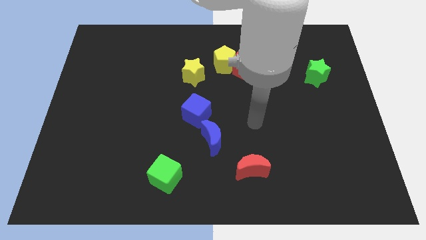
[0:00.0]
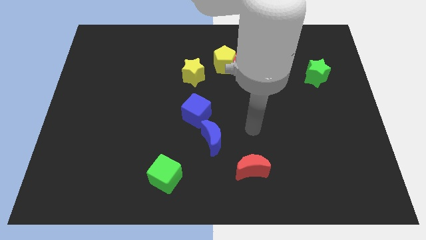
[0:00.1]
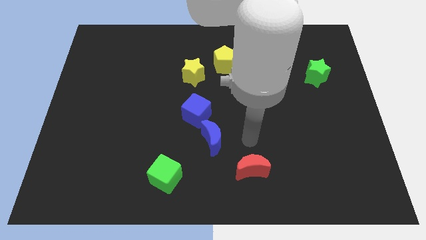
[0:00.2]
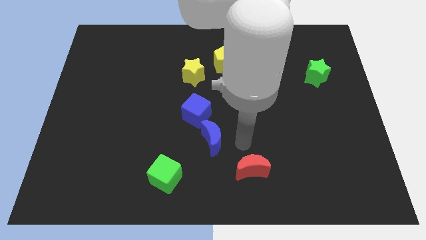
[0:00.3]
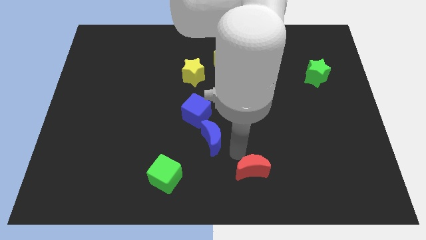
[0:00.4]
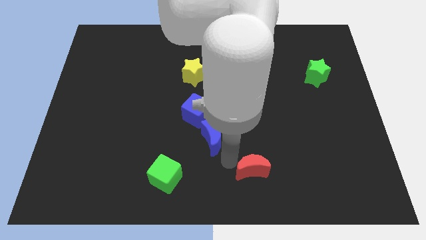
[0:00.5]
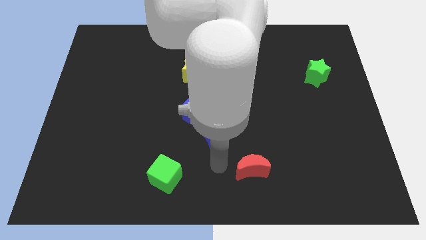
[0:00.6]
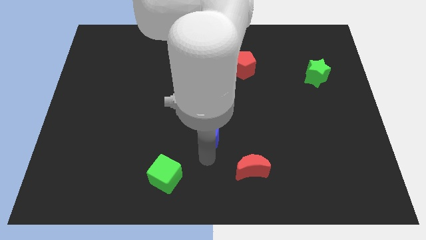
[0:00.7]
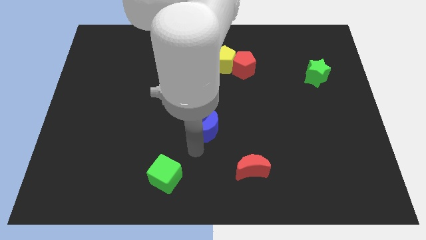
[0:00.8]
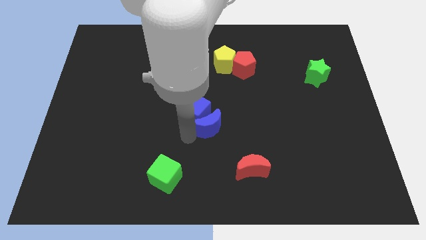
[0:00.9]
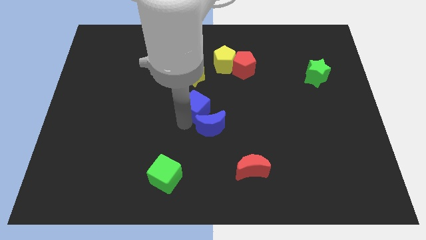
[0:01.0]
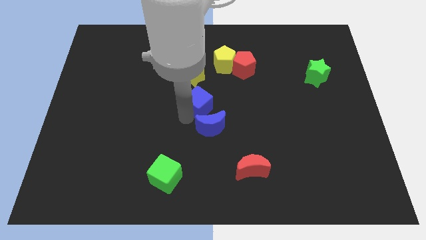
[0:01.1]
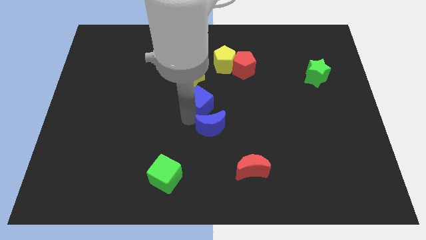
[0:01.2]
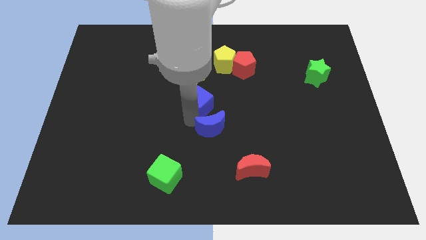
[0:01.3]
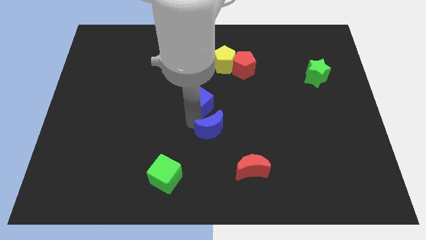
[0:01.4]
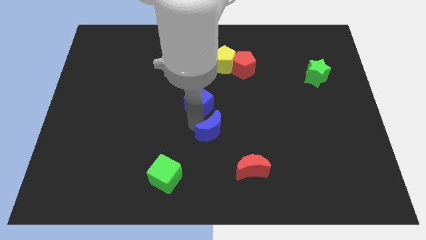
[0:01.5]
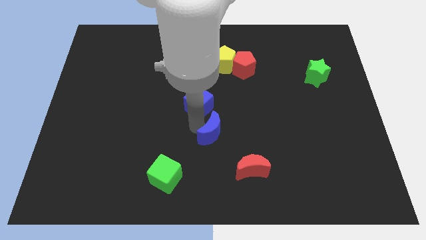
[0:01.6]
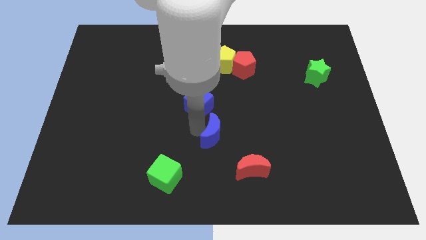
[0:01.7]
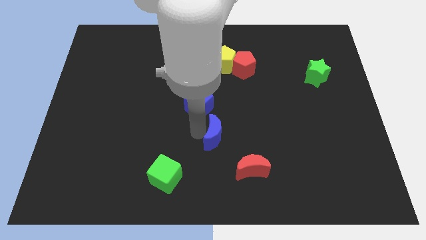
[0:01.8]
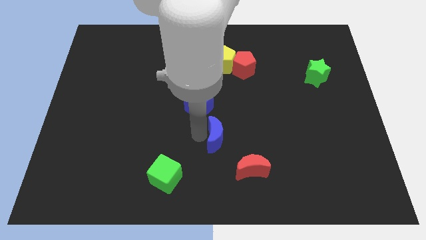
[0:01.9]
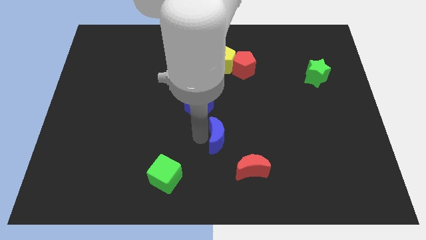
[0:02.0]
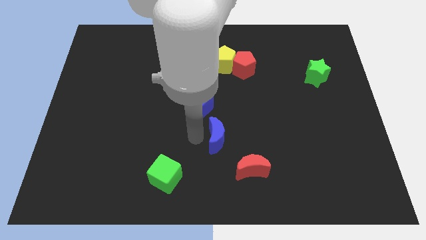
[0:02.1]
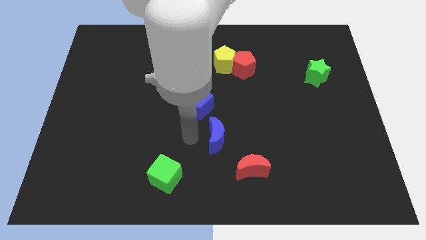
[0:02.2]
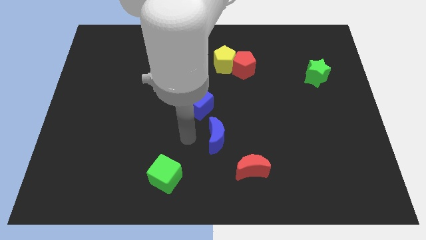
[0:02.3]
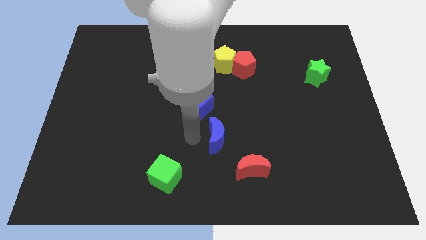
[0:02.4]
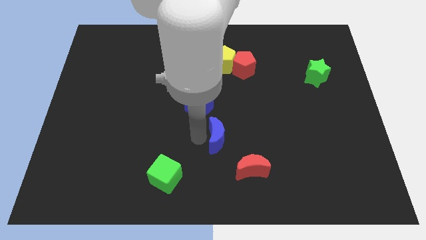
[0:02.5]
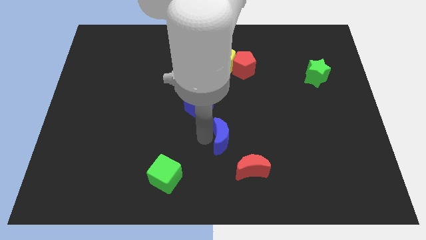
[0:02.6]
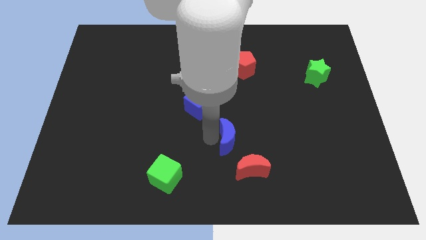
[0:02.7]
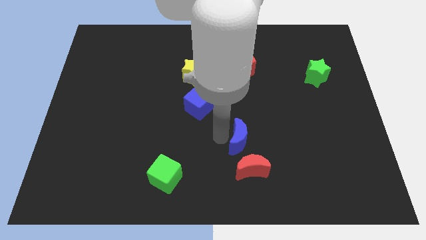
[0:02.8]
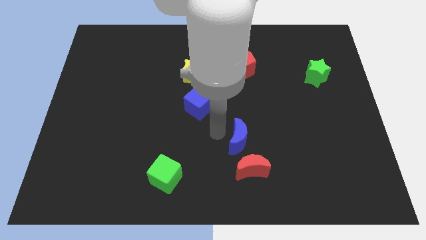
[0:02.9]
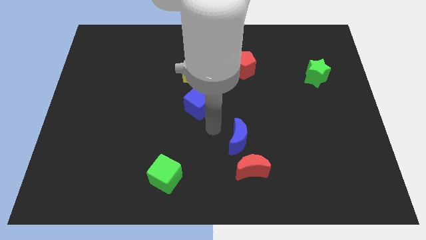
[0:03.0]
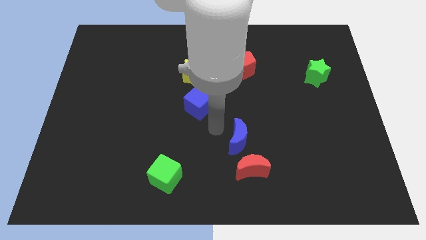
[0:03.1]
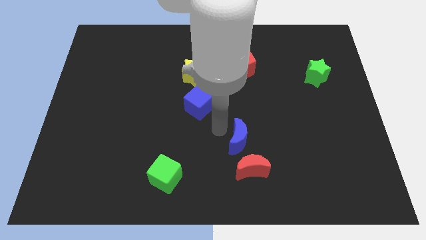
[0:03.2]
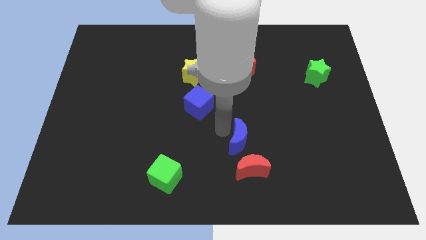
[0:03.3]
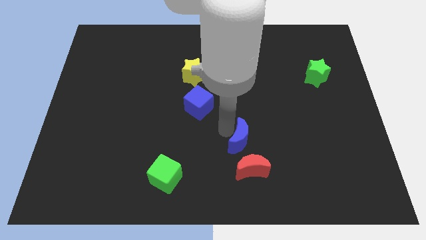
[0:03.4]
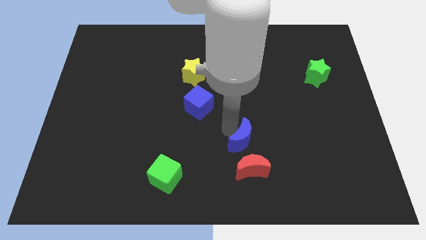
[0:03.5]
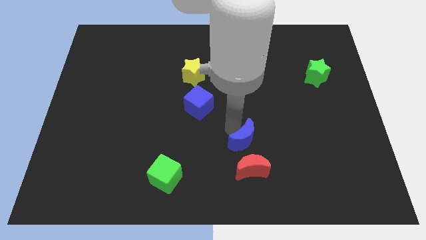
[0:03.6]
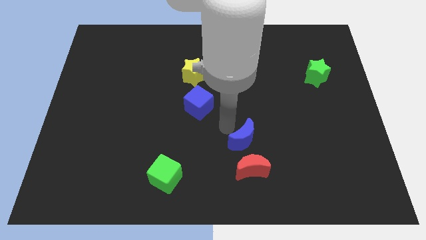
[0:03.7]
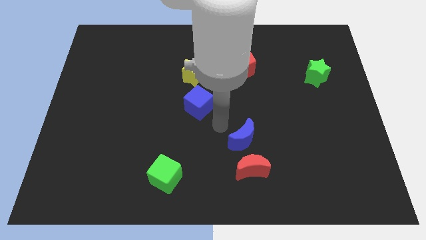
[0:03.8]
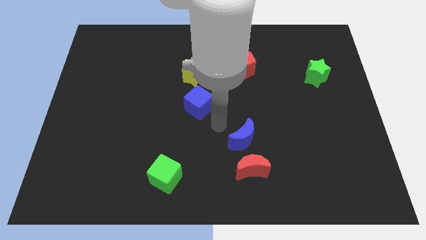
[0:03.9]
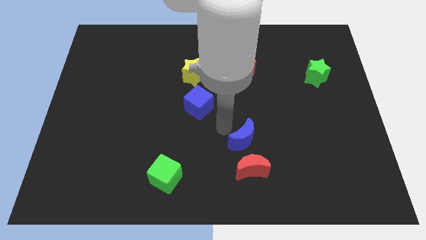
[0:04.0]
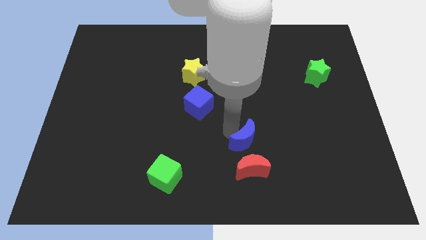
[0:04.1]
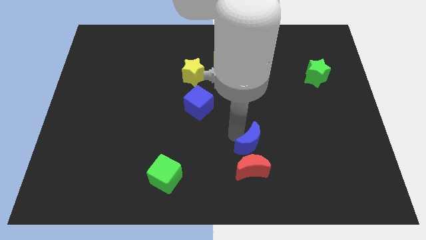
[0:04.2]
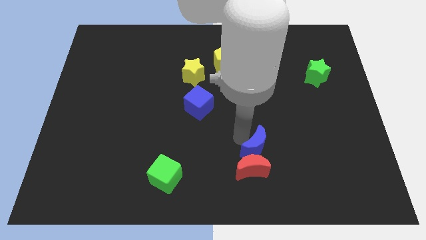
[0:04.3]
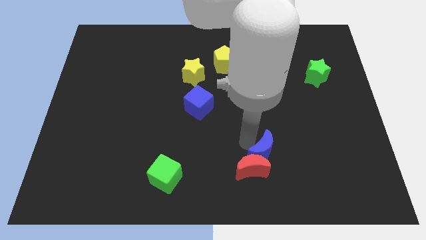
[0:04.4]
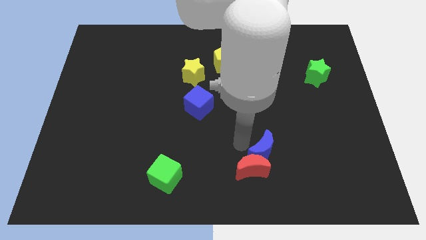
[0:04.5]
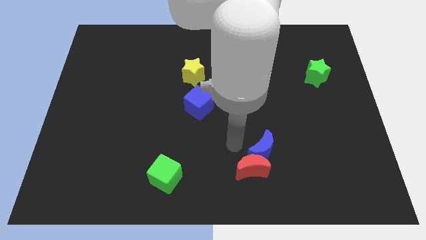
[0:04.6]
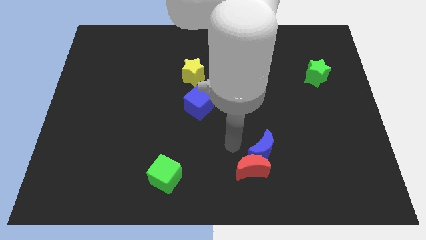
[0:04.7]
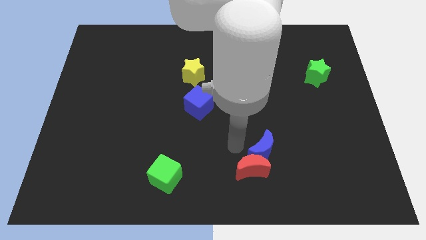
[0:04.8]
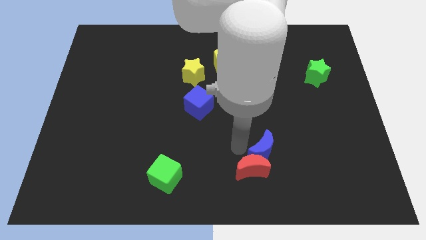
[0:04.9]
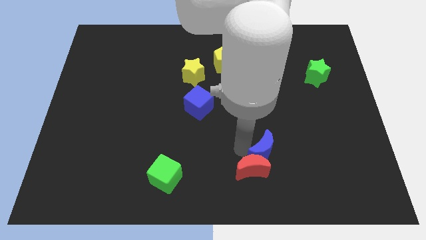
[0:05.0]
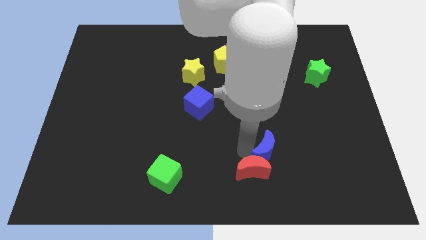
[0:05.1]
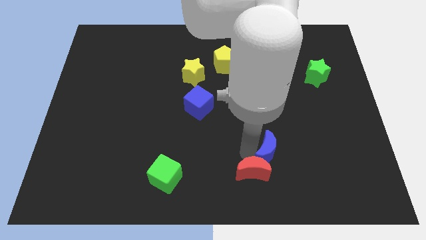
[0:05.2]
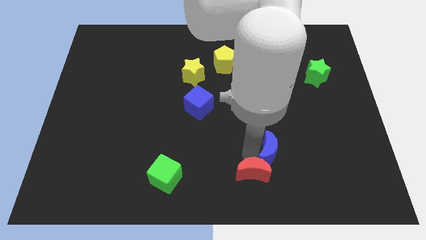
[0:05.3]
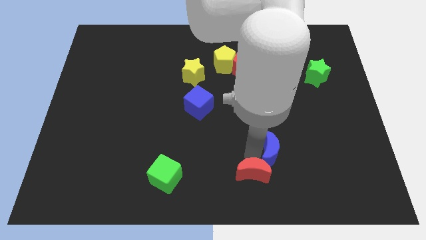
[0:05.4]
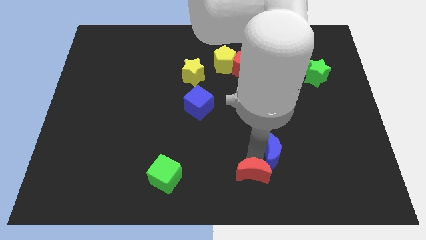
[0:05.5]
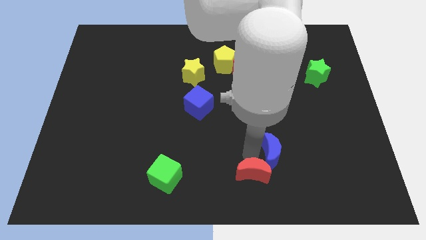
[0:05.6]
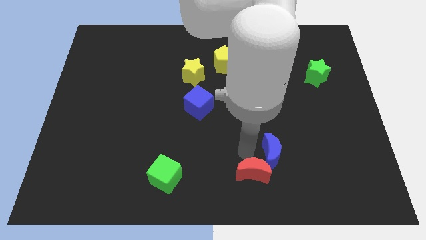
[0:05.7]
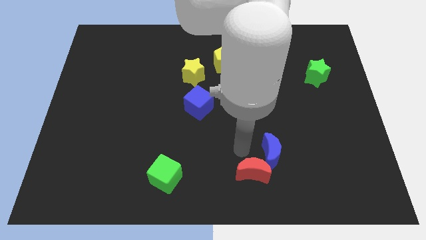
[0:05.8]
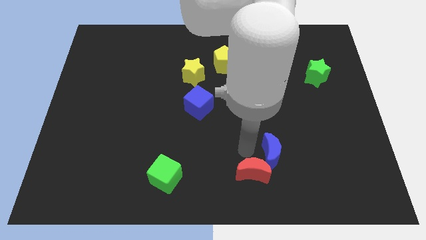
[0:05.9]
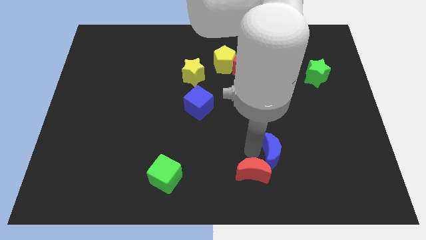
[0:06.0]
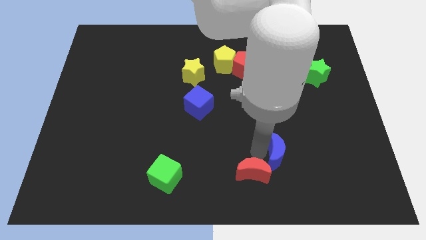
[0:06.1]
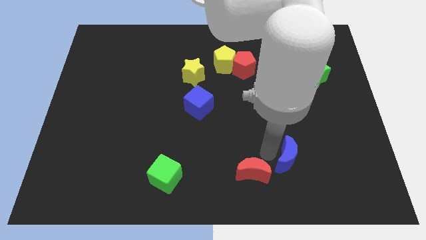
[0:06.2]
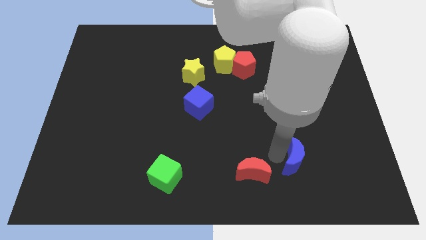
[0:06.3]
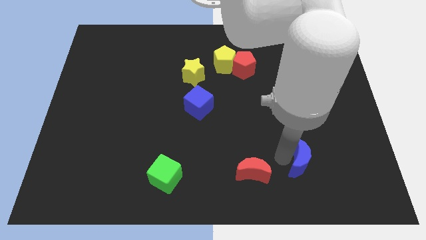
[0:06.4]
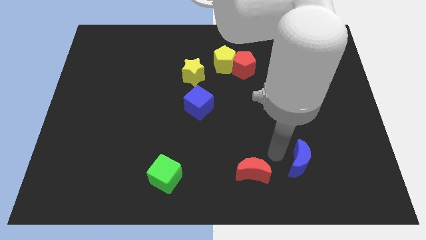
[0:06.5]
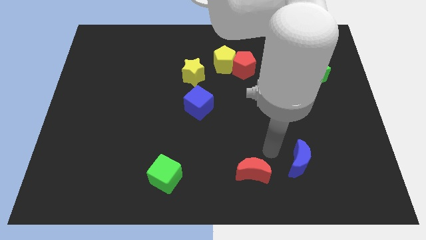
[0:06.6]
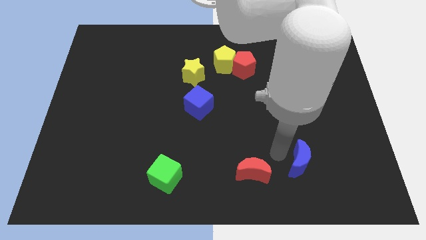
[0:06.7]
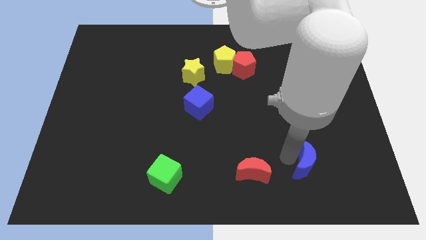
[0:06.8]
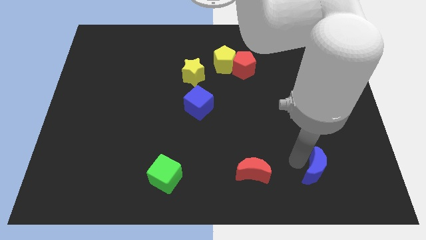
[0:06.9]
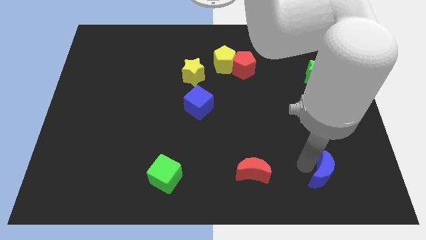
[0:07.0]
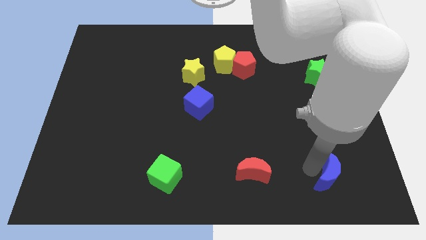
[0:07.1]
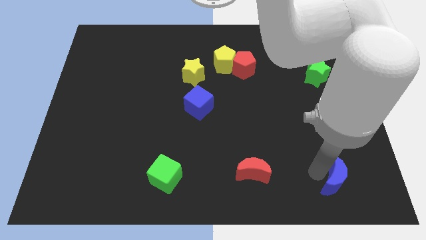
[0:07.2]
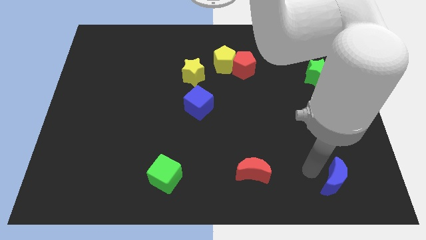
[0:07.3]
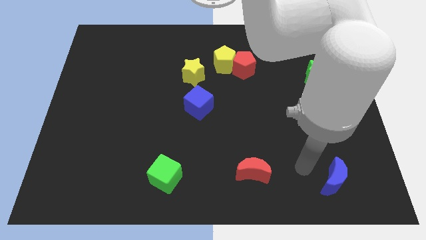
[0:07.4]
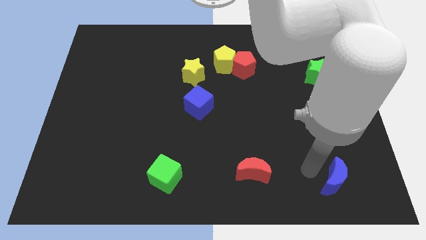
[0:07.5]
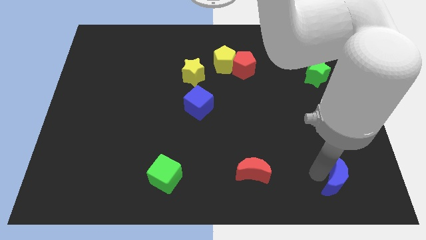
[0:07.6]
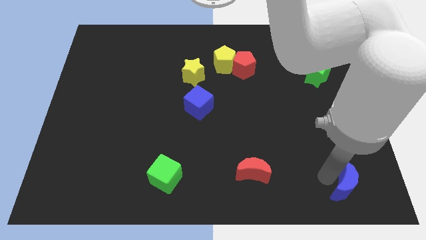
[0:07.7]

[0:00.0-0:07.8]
move the blue moon to the bottom right of the board
